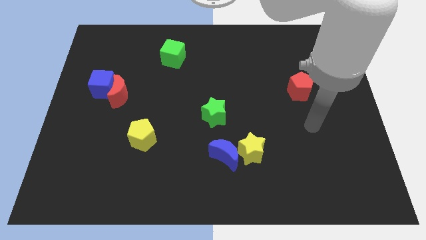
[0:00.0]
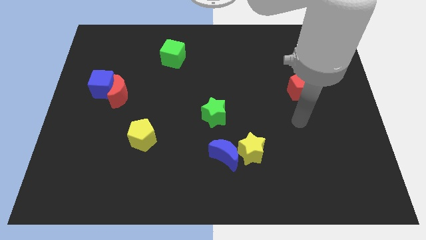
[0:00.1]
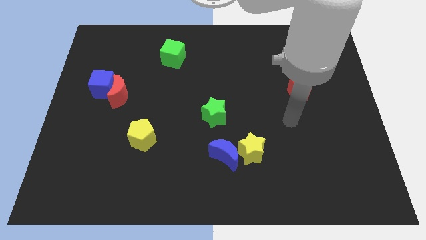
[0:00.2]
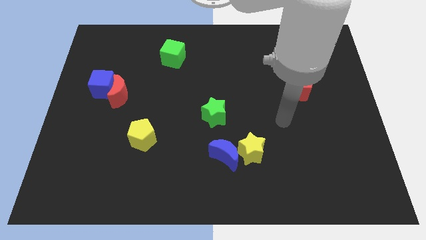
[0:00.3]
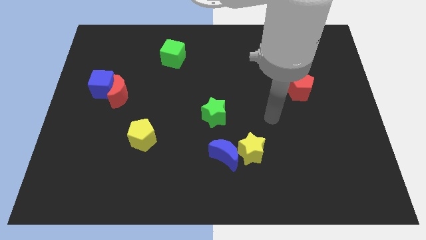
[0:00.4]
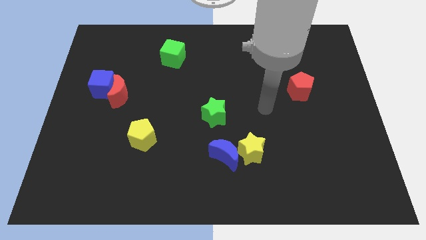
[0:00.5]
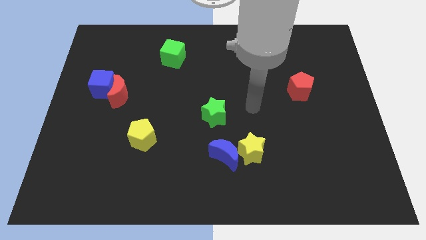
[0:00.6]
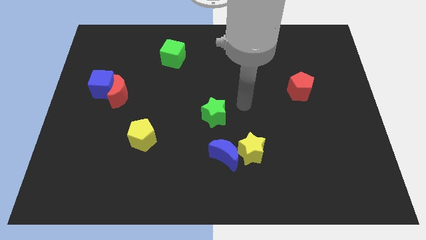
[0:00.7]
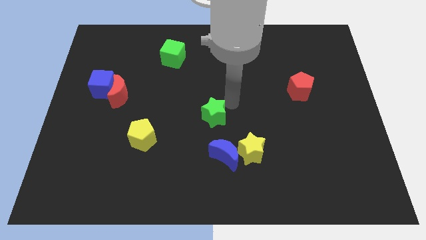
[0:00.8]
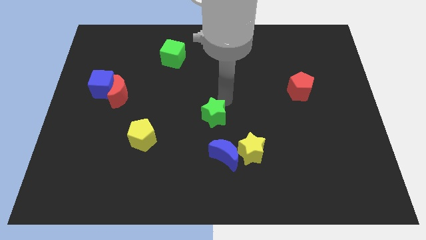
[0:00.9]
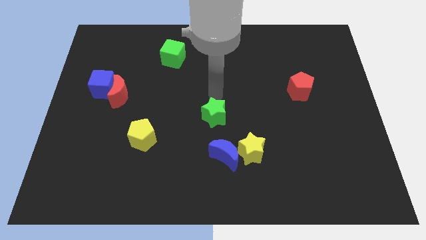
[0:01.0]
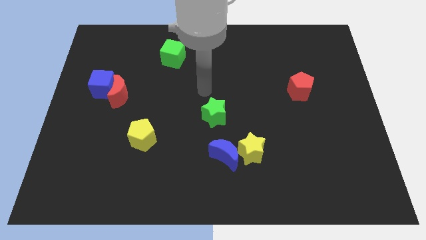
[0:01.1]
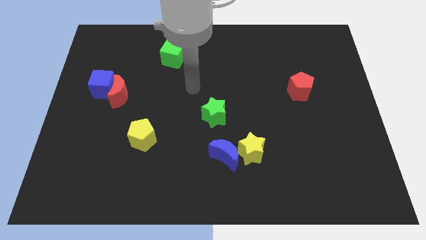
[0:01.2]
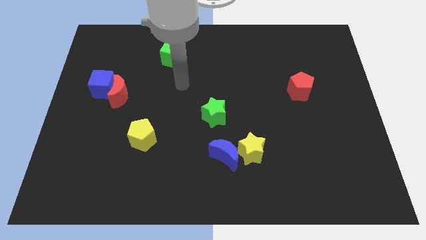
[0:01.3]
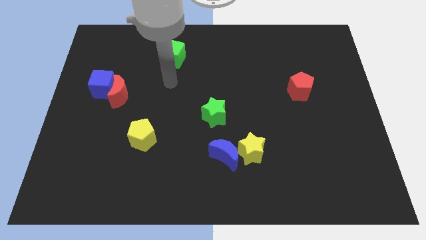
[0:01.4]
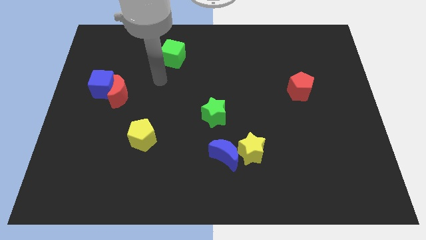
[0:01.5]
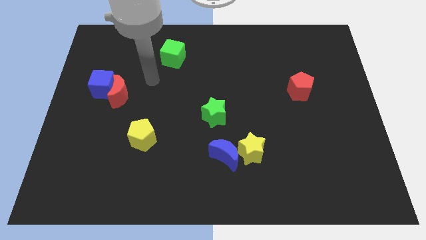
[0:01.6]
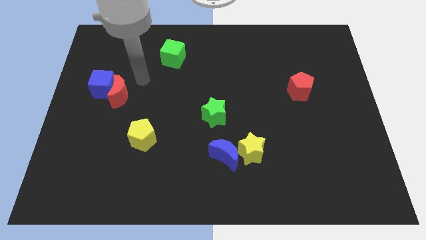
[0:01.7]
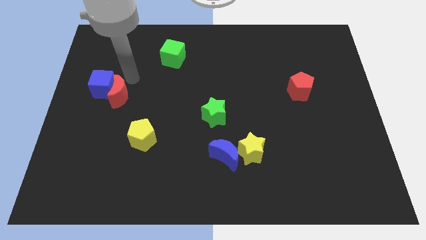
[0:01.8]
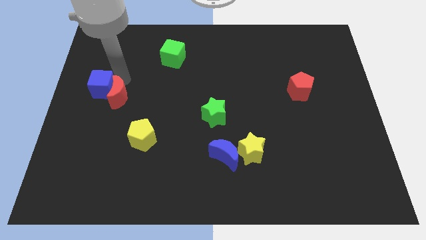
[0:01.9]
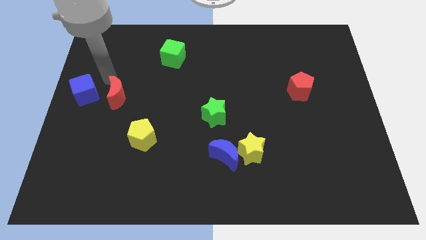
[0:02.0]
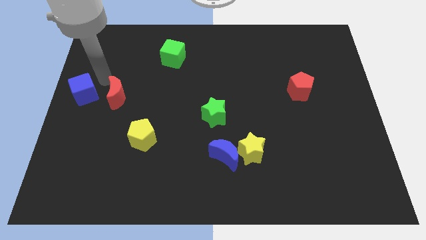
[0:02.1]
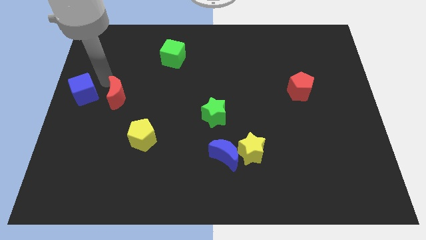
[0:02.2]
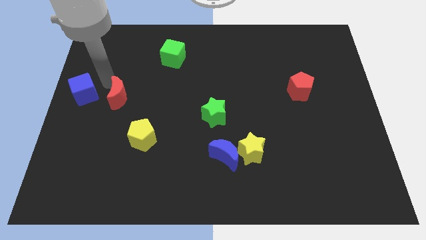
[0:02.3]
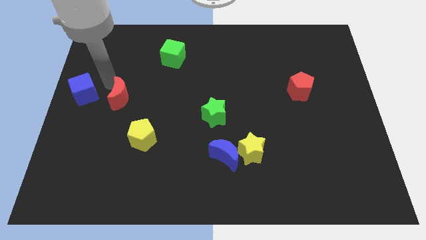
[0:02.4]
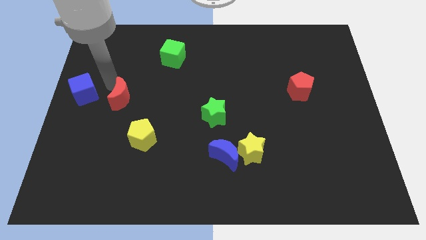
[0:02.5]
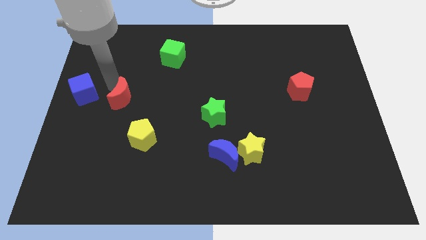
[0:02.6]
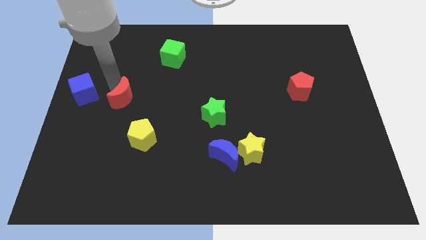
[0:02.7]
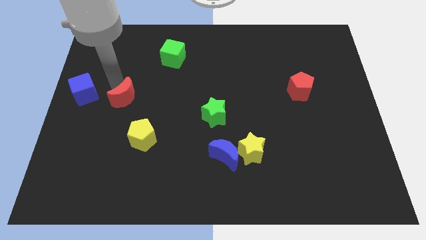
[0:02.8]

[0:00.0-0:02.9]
pull the red moon apart from the blue cube

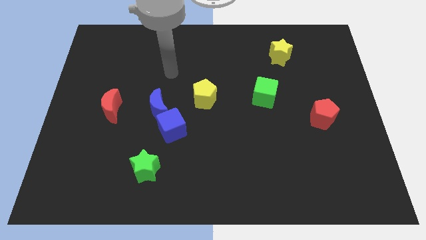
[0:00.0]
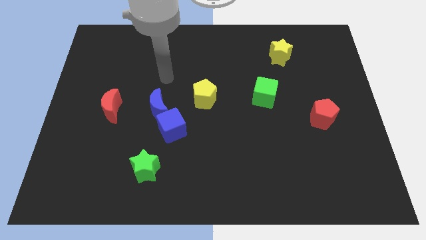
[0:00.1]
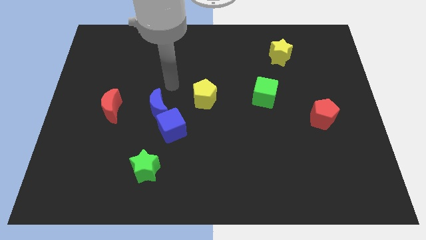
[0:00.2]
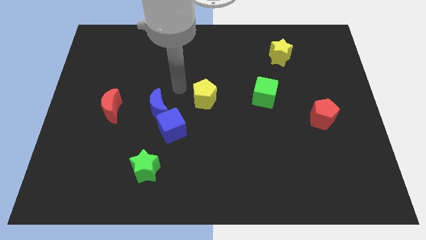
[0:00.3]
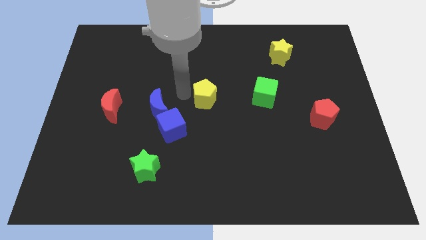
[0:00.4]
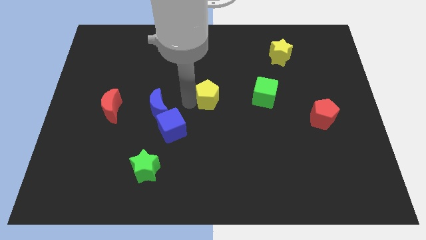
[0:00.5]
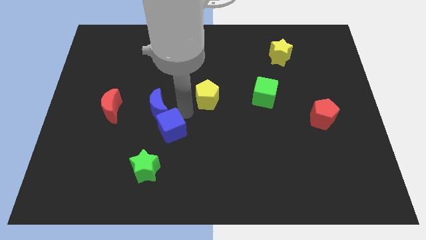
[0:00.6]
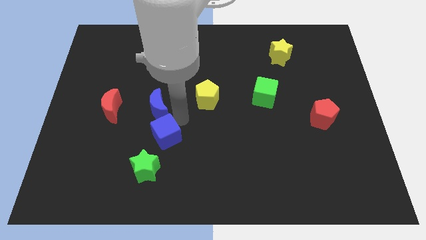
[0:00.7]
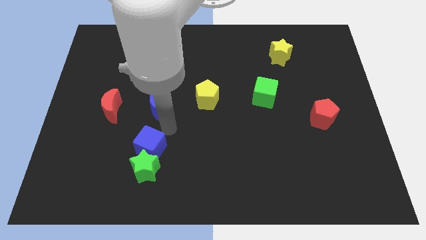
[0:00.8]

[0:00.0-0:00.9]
separate the blue moon from the blue cube

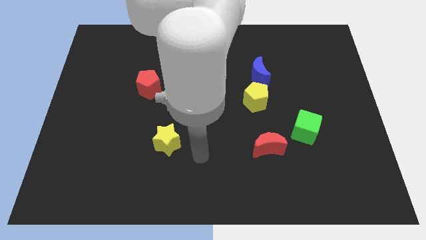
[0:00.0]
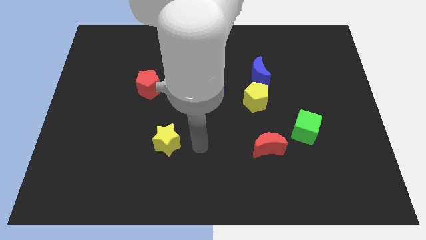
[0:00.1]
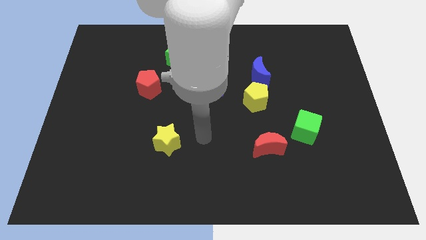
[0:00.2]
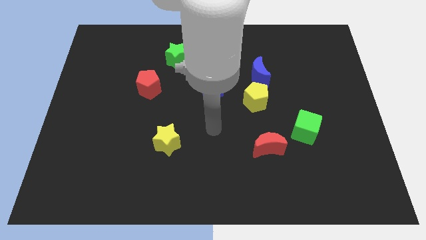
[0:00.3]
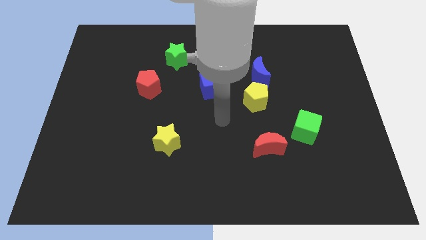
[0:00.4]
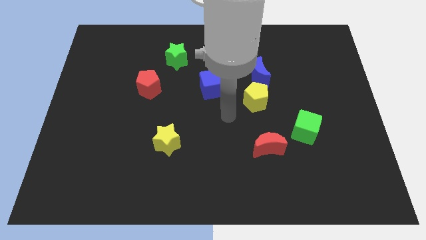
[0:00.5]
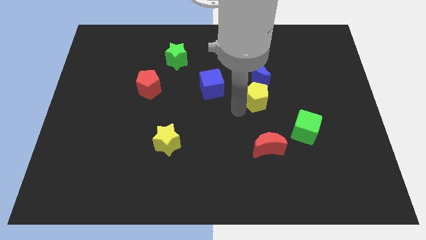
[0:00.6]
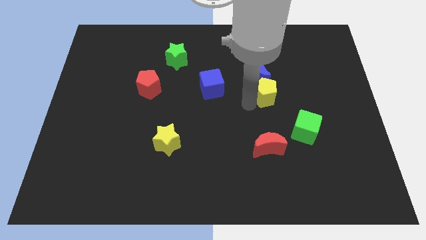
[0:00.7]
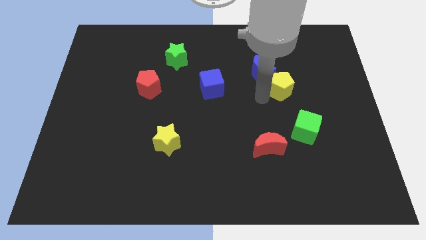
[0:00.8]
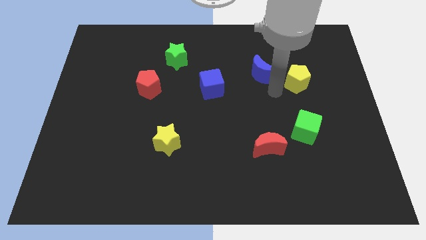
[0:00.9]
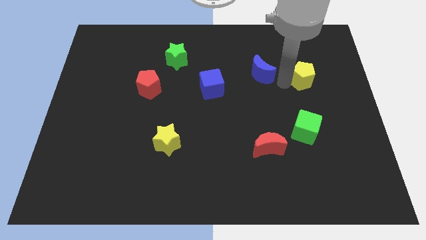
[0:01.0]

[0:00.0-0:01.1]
separate the blue moon from the yellow pentagon

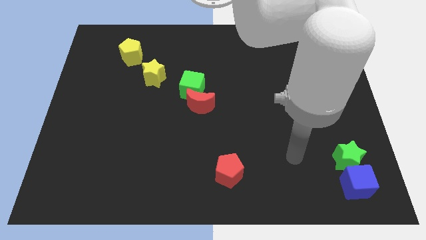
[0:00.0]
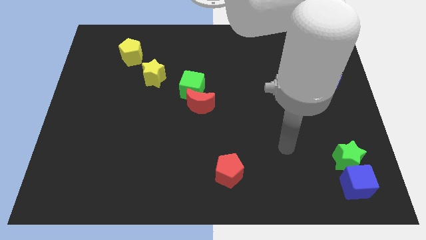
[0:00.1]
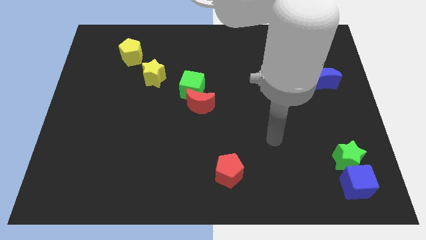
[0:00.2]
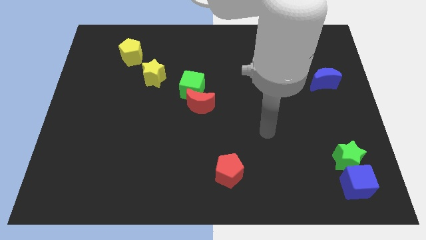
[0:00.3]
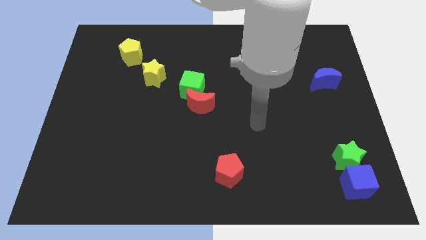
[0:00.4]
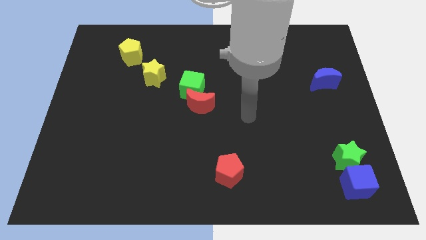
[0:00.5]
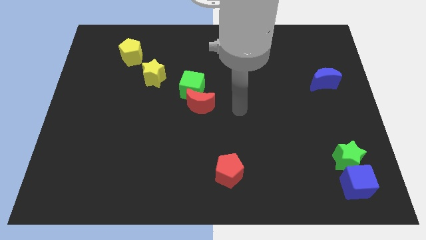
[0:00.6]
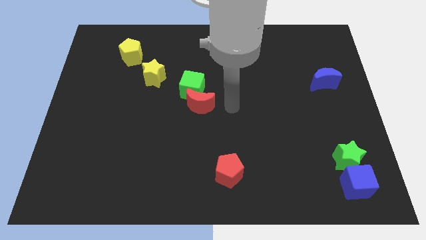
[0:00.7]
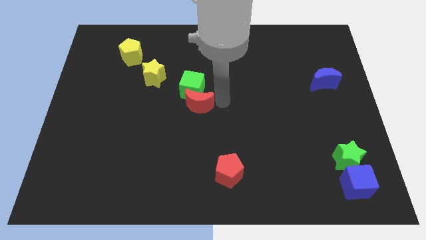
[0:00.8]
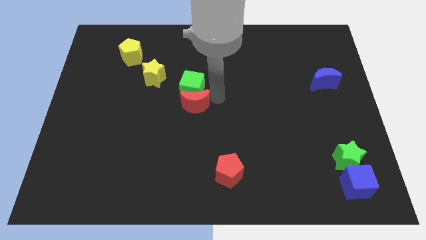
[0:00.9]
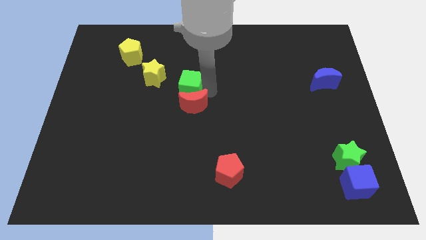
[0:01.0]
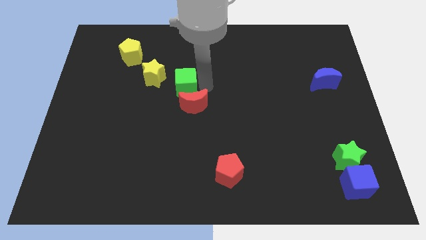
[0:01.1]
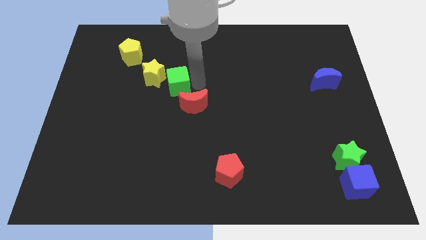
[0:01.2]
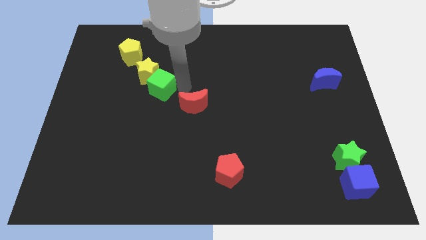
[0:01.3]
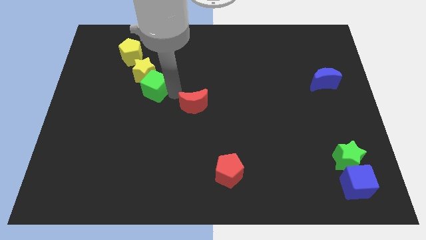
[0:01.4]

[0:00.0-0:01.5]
pull the red moon apart from the green cube

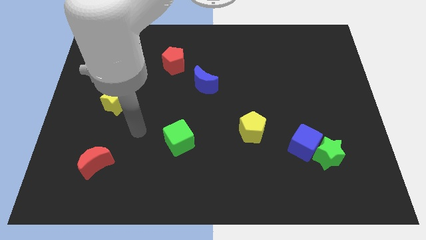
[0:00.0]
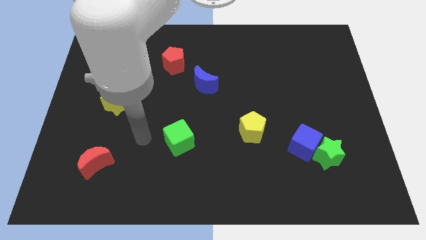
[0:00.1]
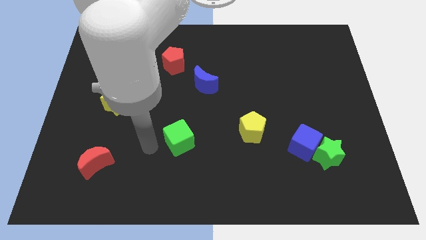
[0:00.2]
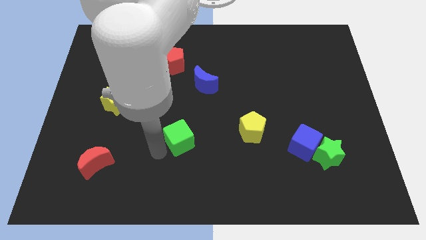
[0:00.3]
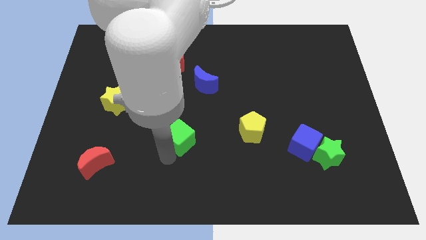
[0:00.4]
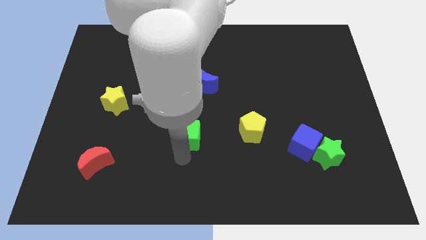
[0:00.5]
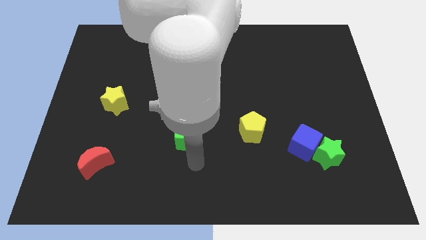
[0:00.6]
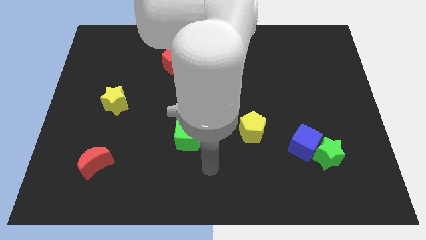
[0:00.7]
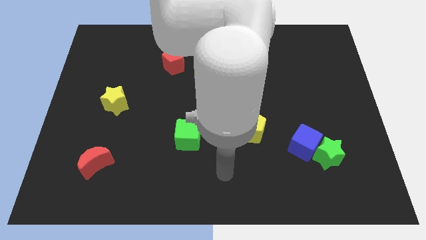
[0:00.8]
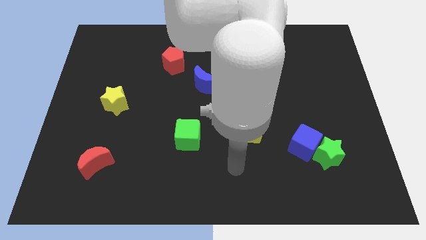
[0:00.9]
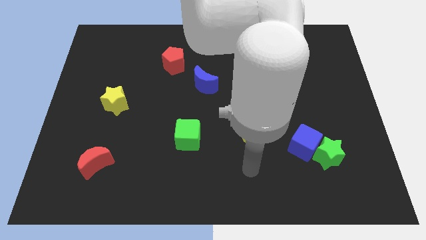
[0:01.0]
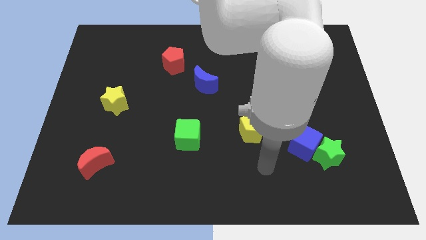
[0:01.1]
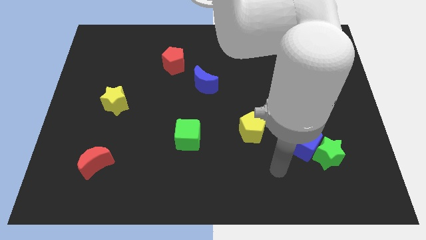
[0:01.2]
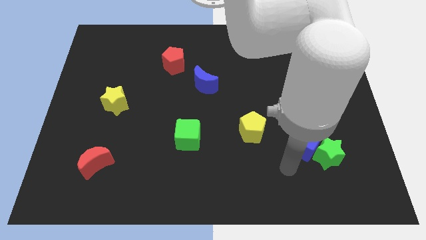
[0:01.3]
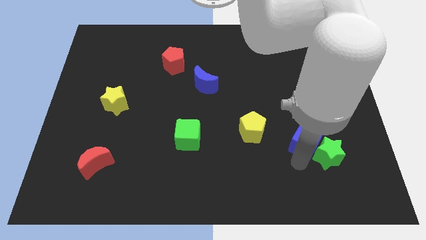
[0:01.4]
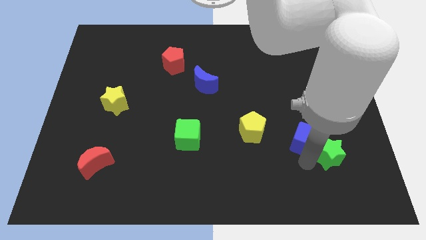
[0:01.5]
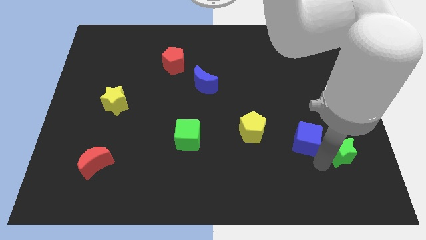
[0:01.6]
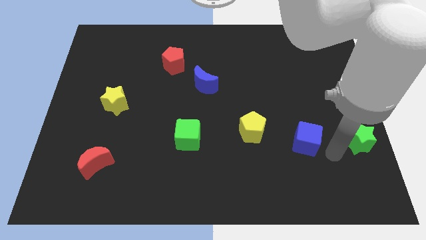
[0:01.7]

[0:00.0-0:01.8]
move the blue cube away from the green star

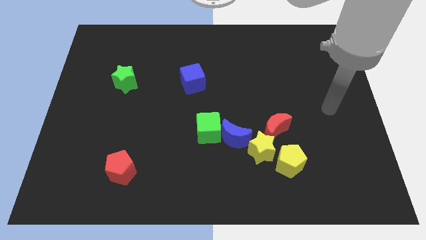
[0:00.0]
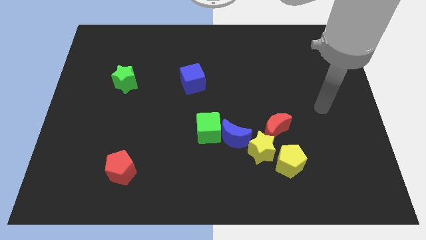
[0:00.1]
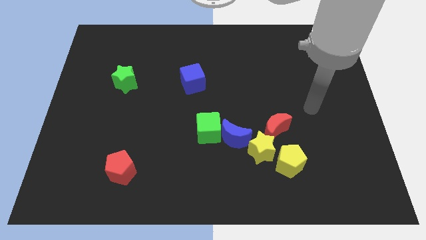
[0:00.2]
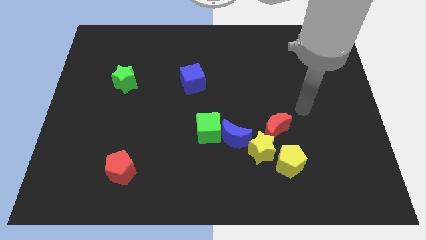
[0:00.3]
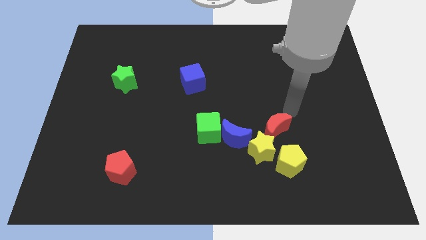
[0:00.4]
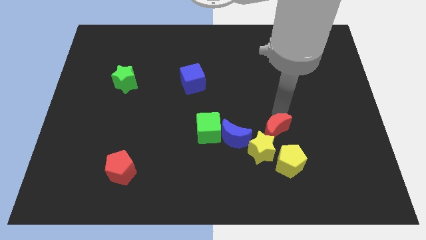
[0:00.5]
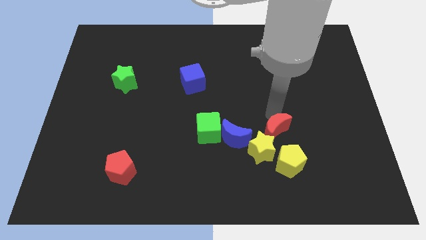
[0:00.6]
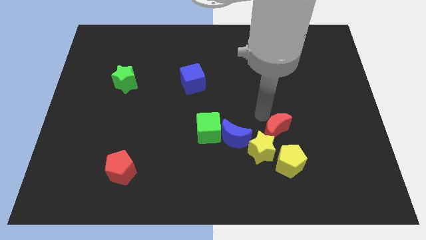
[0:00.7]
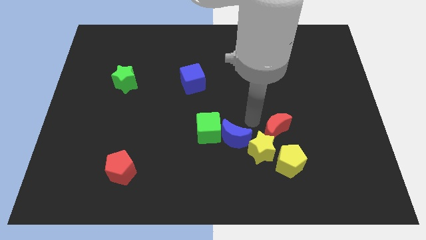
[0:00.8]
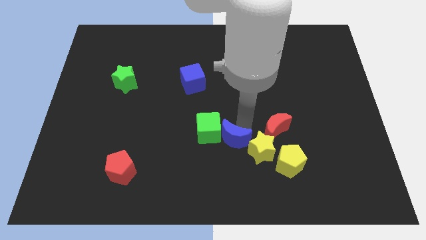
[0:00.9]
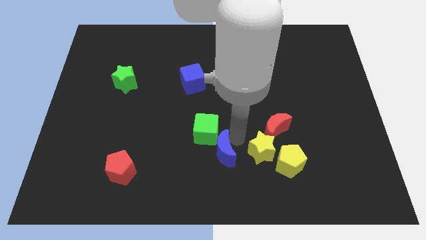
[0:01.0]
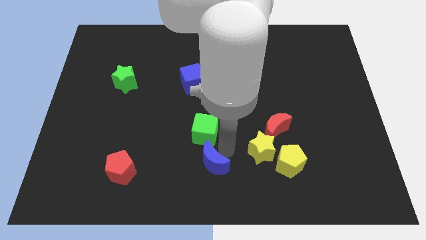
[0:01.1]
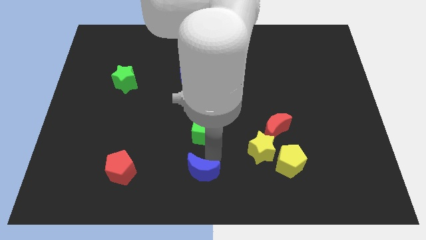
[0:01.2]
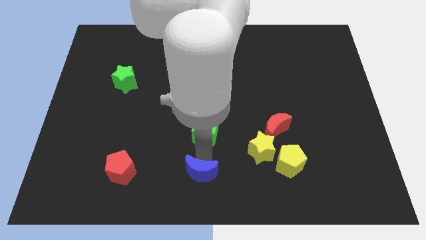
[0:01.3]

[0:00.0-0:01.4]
pull the green cube apart from the blue moon
